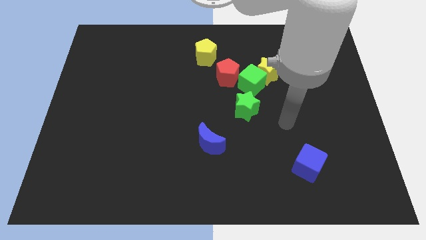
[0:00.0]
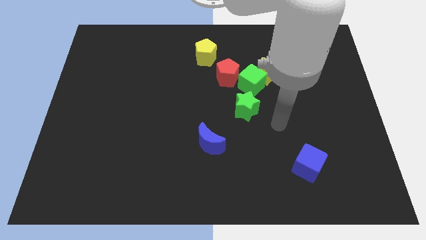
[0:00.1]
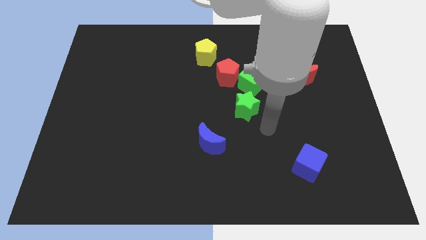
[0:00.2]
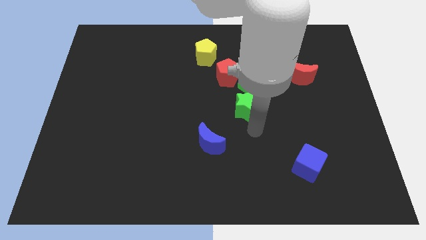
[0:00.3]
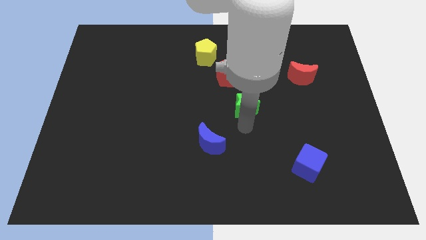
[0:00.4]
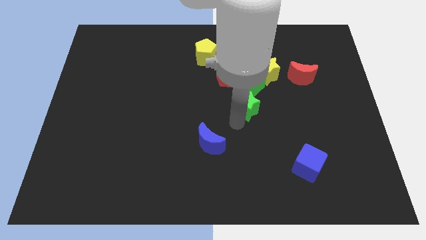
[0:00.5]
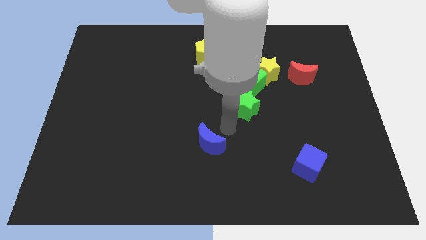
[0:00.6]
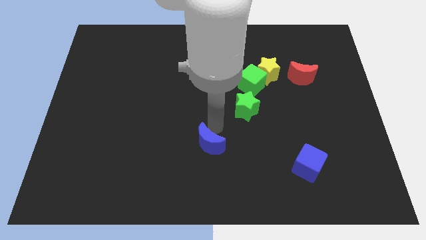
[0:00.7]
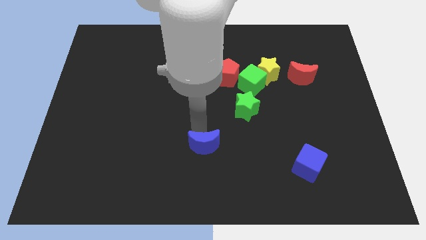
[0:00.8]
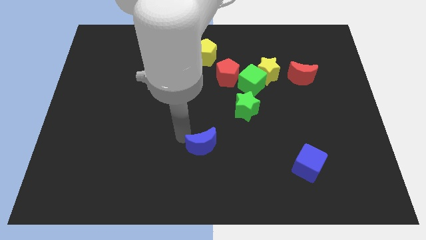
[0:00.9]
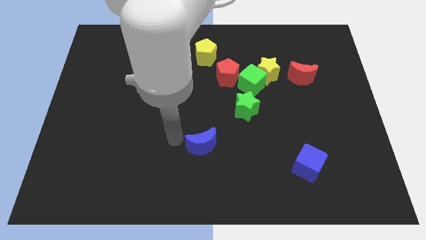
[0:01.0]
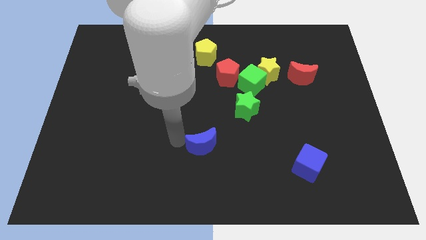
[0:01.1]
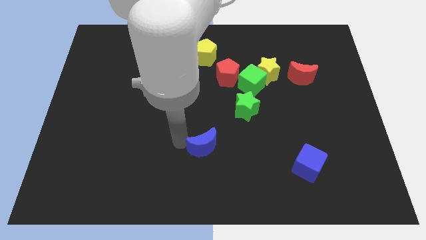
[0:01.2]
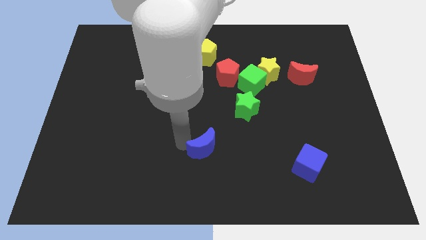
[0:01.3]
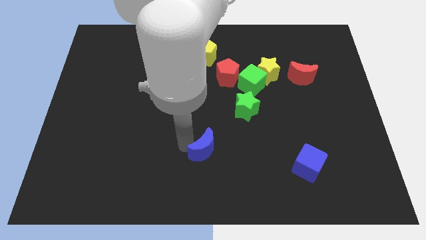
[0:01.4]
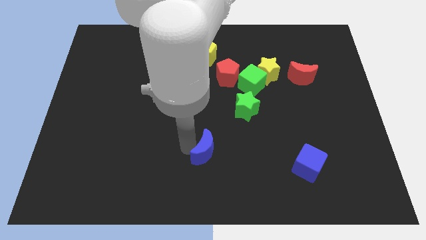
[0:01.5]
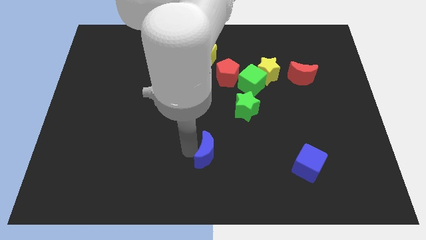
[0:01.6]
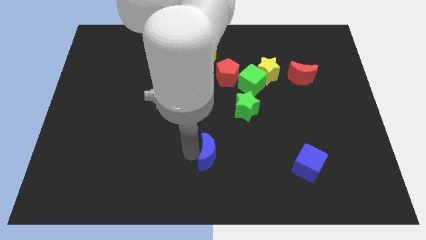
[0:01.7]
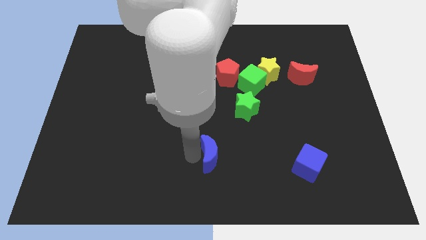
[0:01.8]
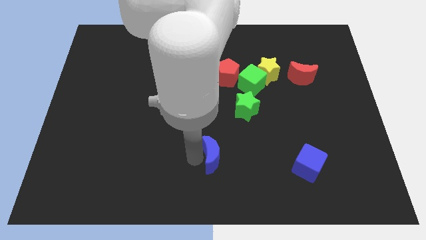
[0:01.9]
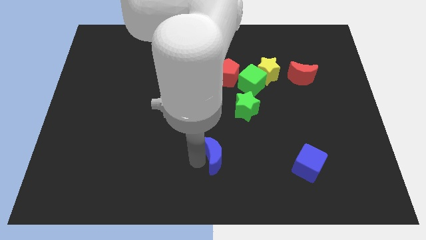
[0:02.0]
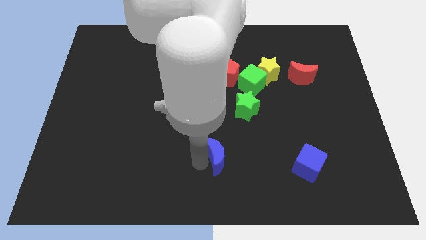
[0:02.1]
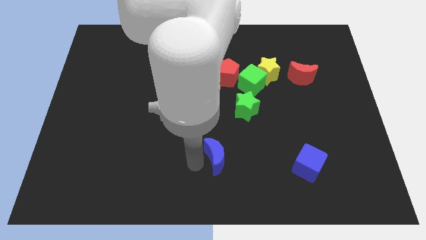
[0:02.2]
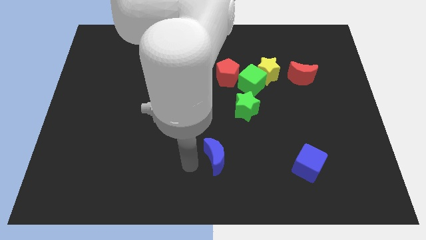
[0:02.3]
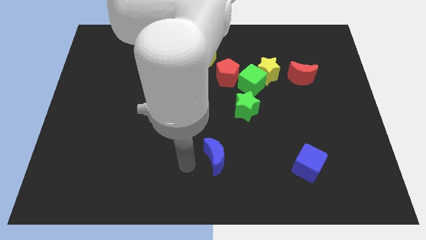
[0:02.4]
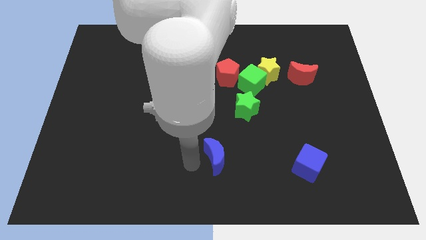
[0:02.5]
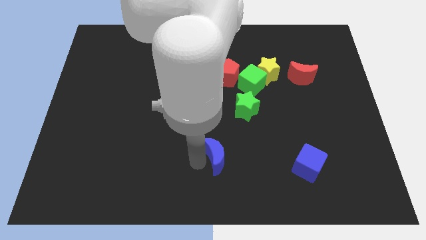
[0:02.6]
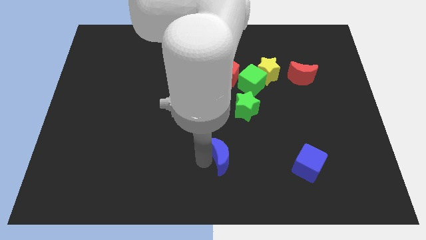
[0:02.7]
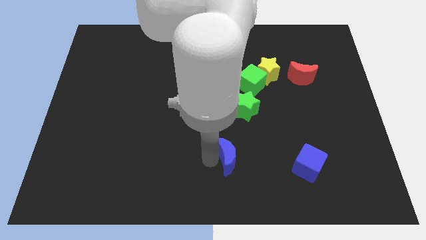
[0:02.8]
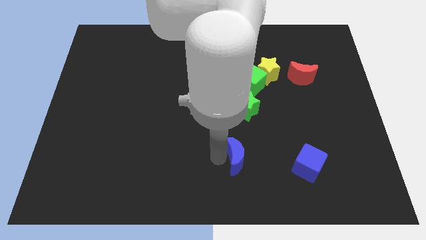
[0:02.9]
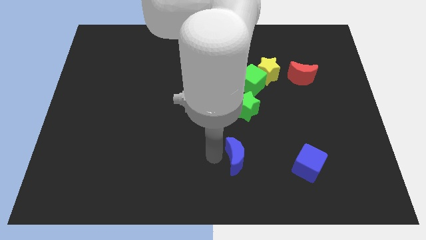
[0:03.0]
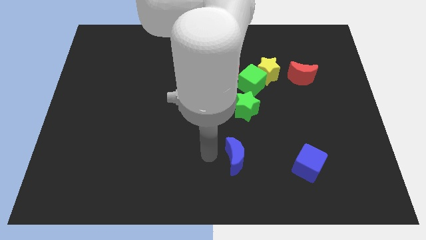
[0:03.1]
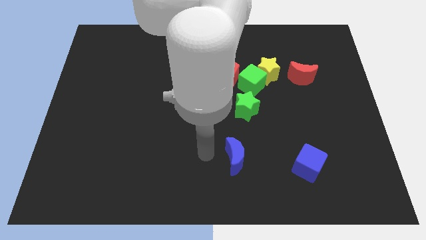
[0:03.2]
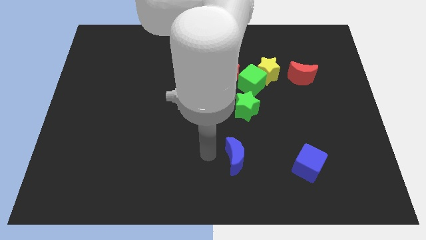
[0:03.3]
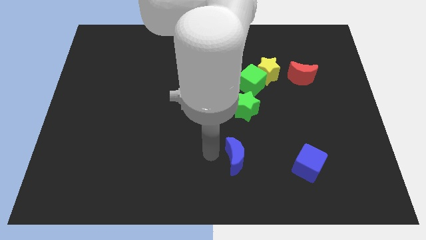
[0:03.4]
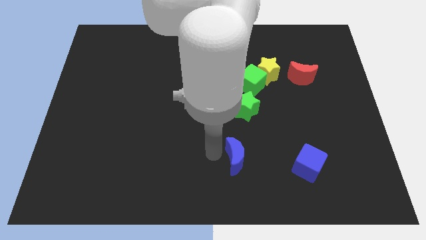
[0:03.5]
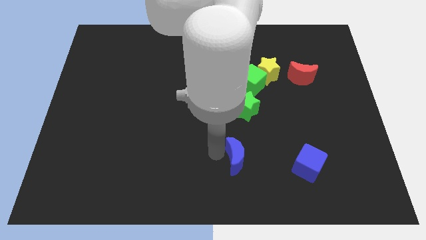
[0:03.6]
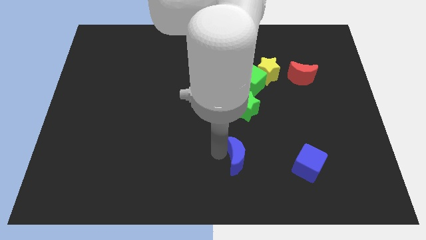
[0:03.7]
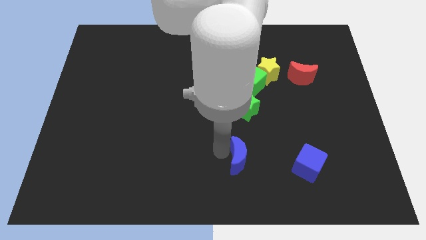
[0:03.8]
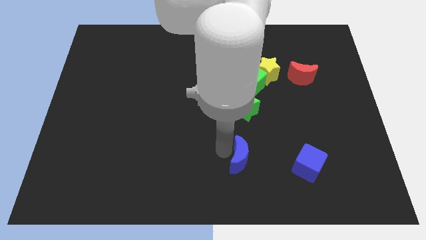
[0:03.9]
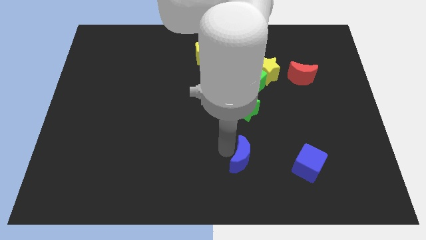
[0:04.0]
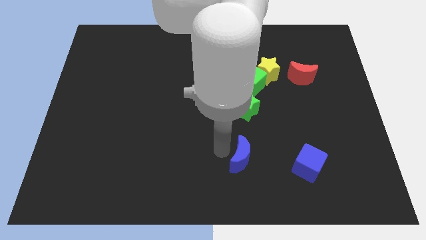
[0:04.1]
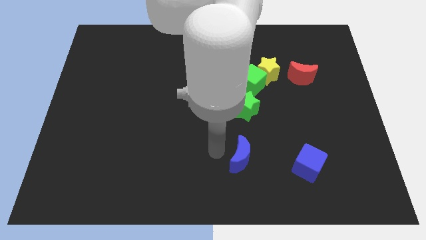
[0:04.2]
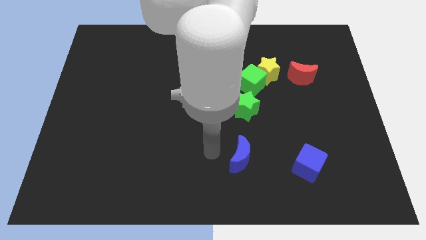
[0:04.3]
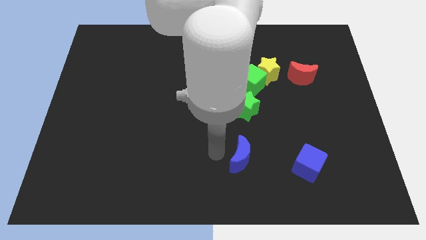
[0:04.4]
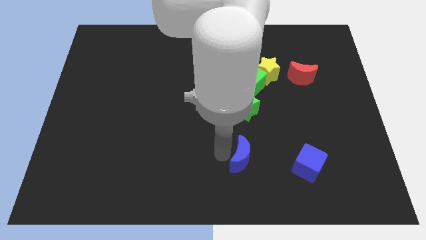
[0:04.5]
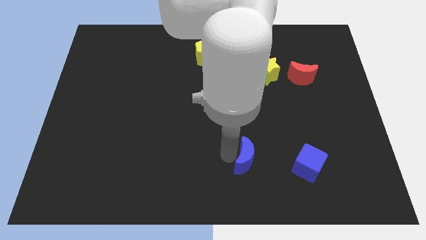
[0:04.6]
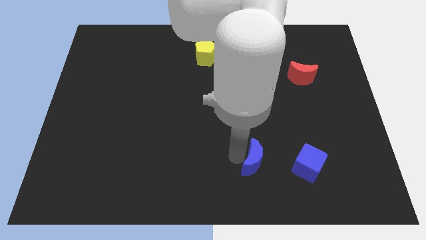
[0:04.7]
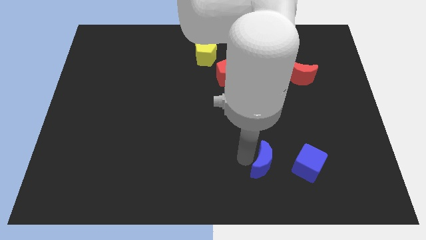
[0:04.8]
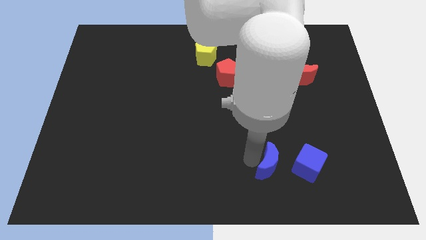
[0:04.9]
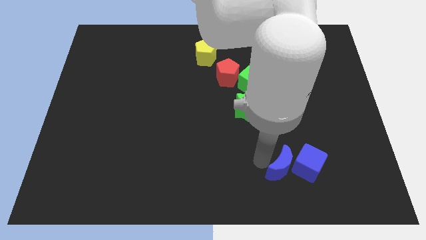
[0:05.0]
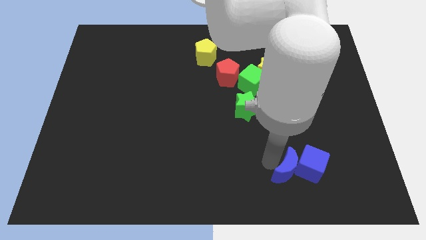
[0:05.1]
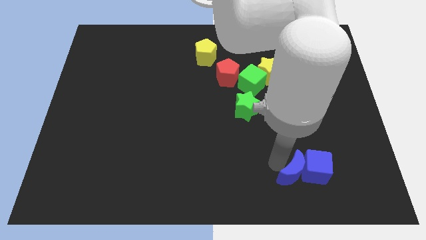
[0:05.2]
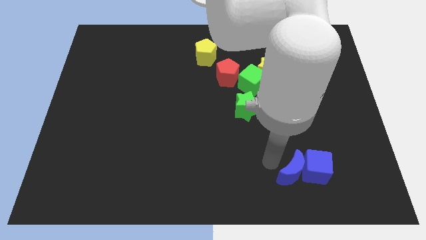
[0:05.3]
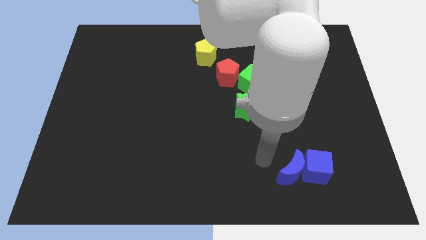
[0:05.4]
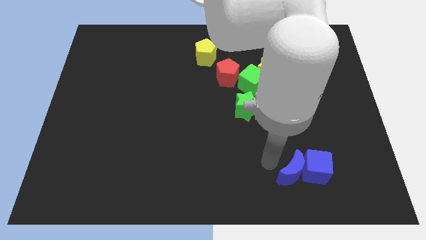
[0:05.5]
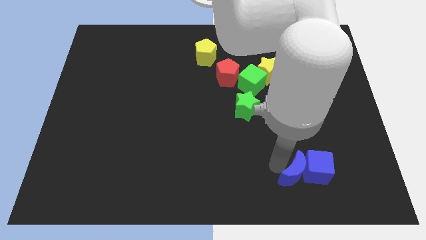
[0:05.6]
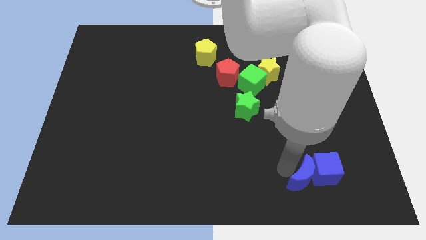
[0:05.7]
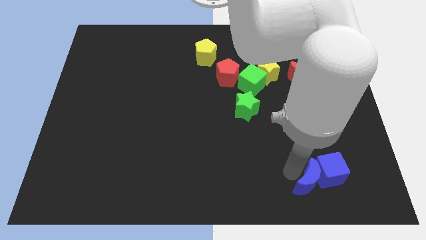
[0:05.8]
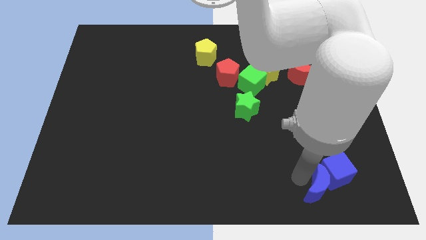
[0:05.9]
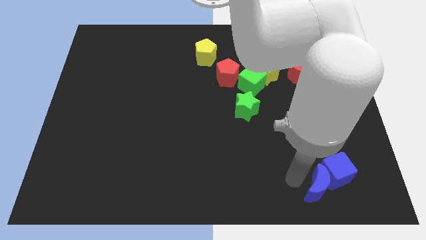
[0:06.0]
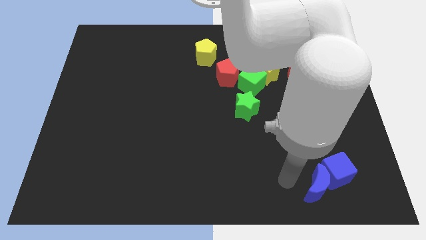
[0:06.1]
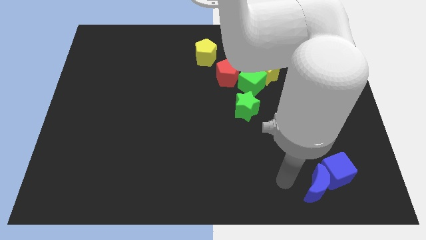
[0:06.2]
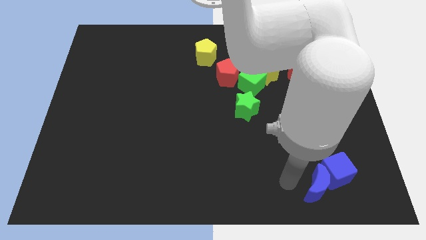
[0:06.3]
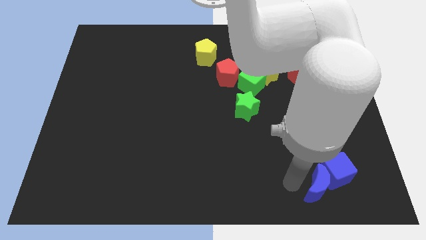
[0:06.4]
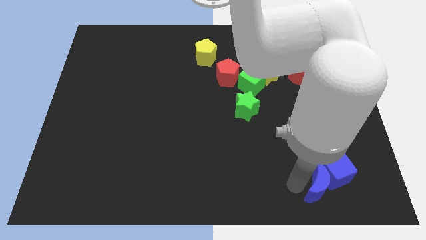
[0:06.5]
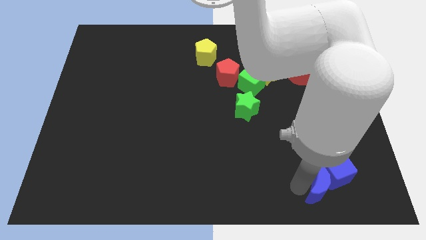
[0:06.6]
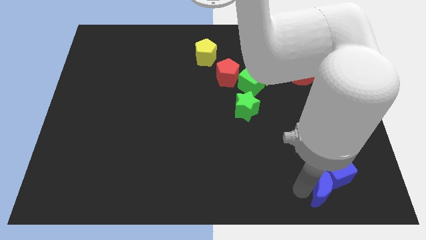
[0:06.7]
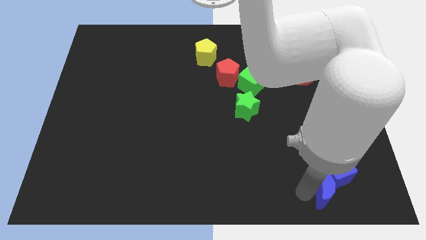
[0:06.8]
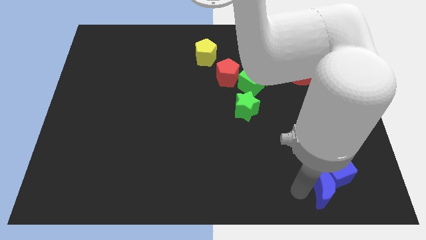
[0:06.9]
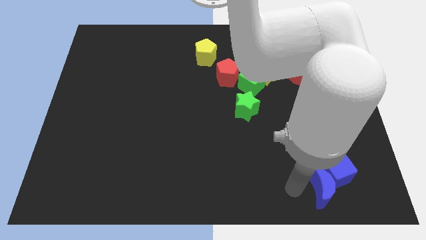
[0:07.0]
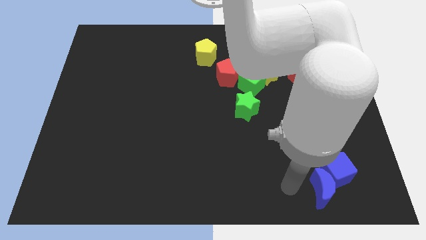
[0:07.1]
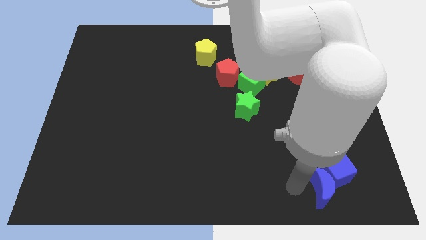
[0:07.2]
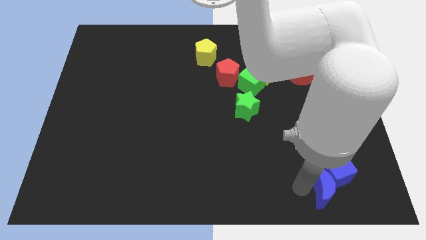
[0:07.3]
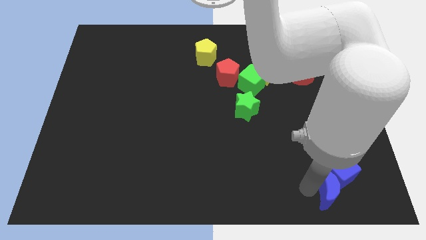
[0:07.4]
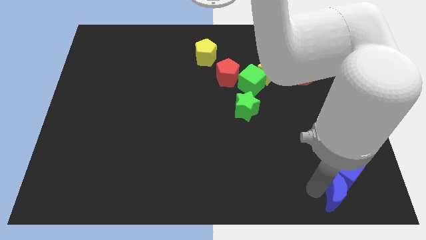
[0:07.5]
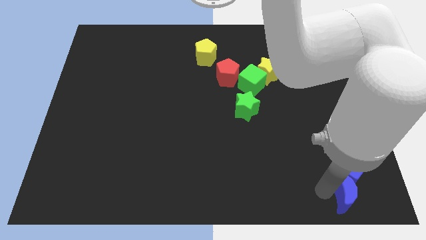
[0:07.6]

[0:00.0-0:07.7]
push the blue moon to the bottom right corner
